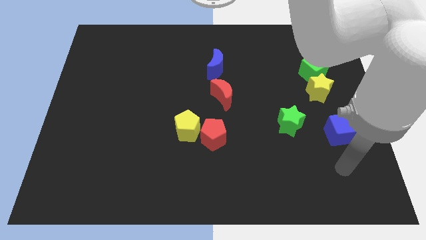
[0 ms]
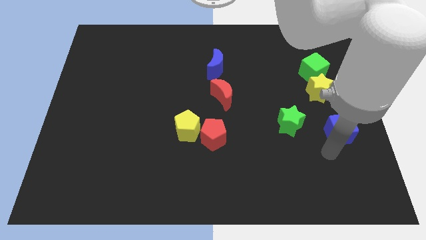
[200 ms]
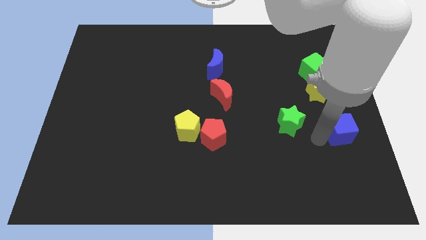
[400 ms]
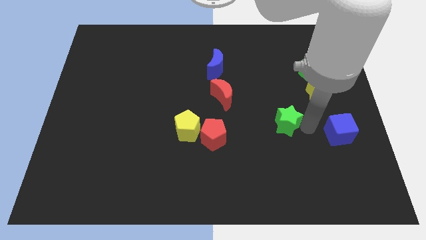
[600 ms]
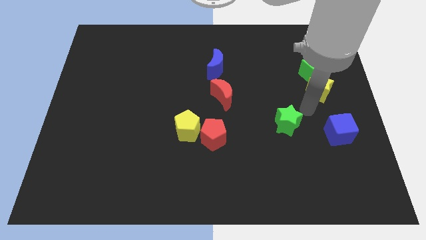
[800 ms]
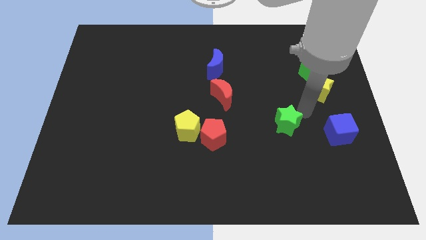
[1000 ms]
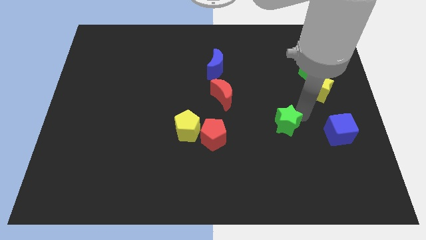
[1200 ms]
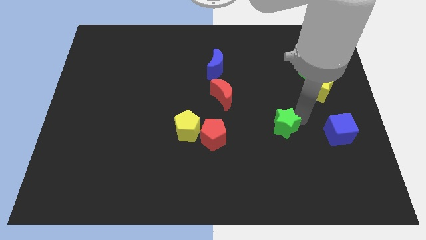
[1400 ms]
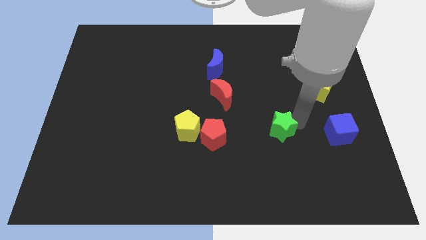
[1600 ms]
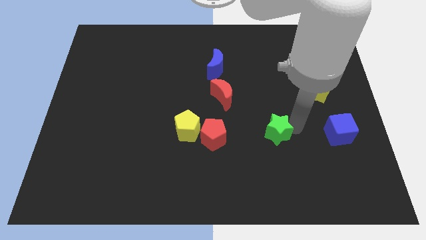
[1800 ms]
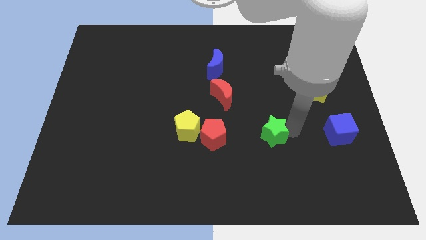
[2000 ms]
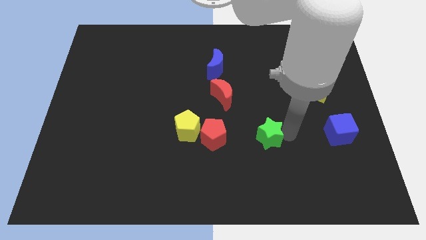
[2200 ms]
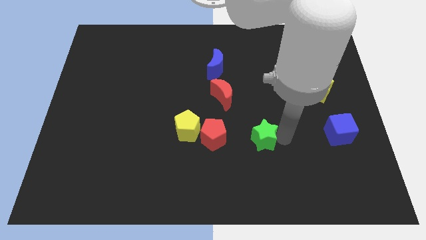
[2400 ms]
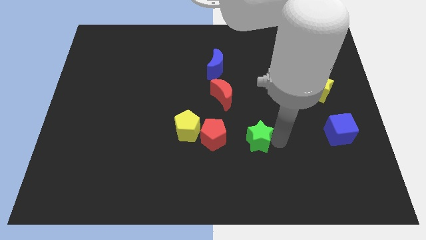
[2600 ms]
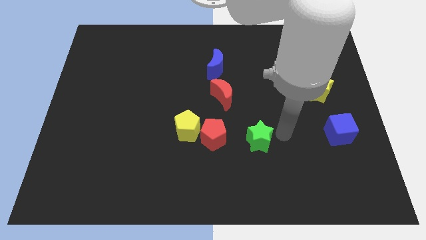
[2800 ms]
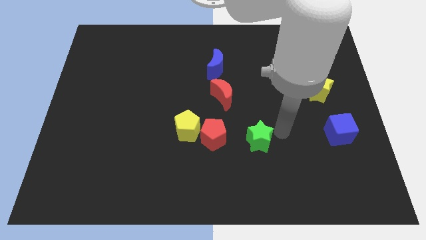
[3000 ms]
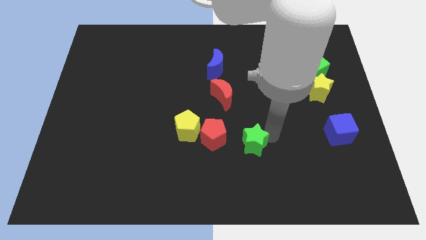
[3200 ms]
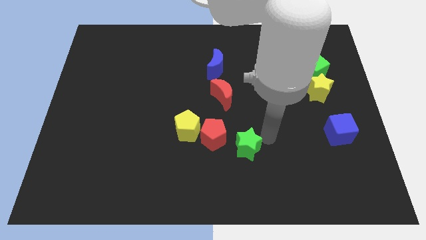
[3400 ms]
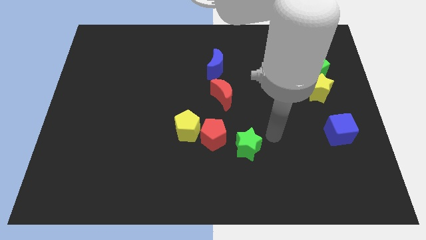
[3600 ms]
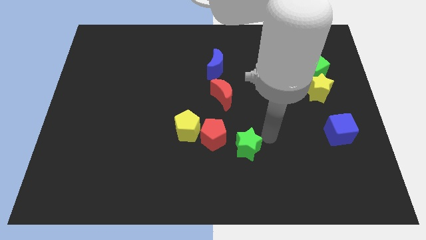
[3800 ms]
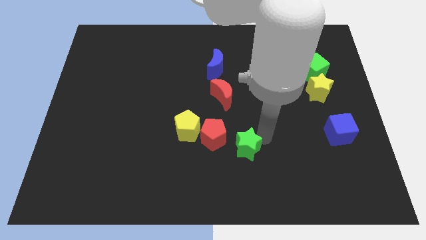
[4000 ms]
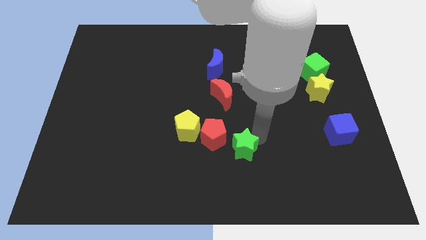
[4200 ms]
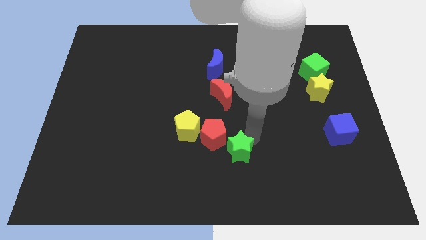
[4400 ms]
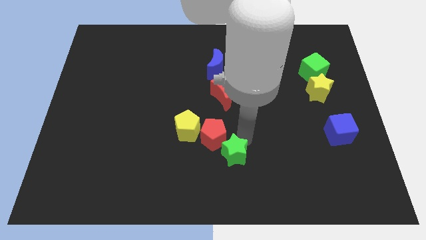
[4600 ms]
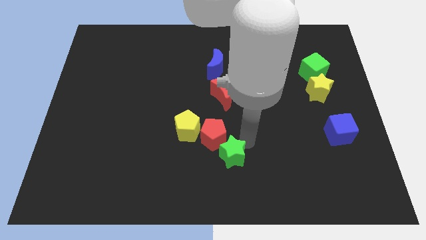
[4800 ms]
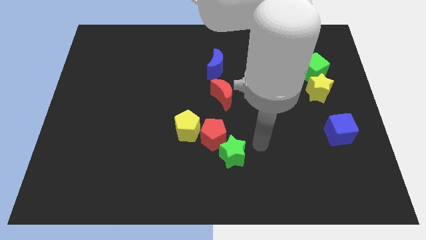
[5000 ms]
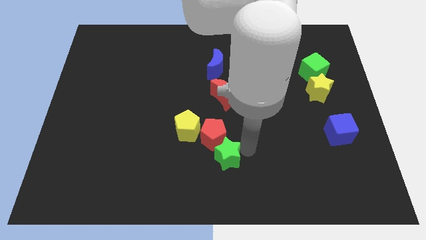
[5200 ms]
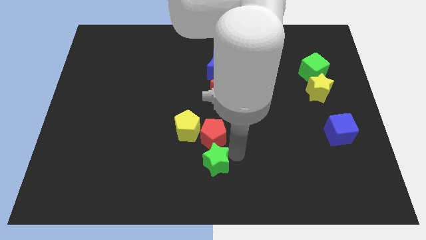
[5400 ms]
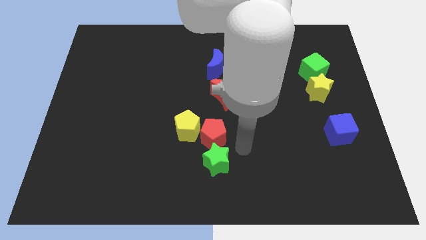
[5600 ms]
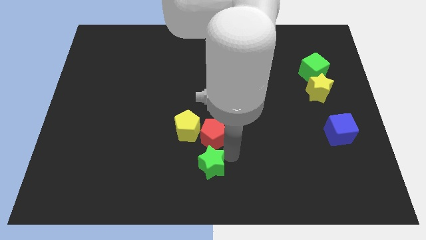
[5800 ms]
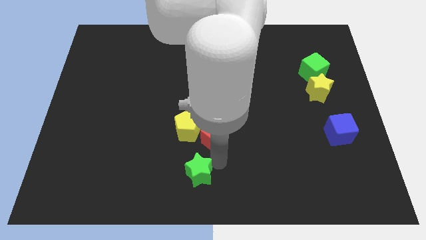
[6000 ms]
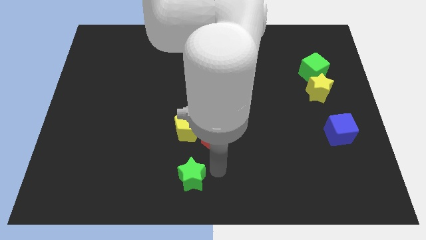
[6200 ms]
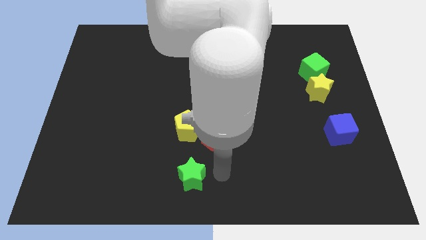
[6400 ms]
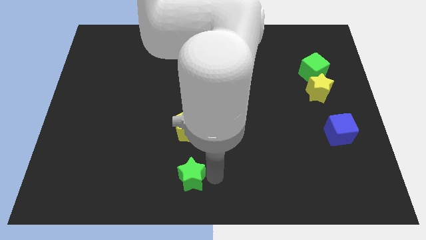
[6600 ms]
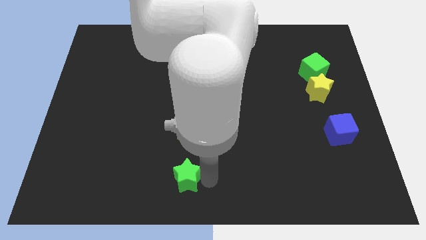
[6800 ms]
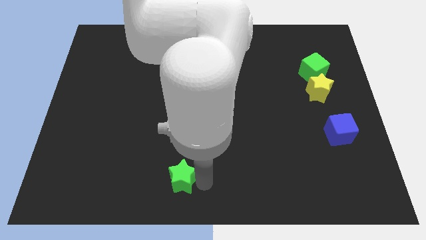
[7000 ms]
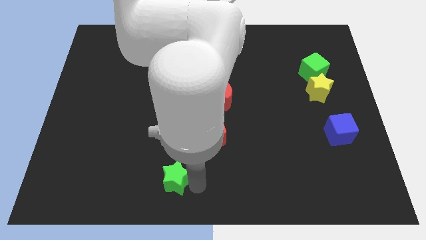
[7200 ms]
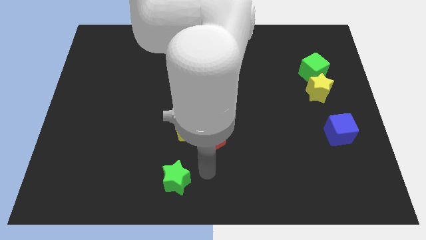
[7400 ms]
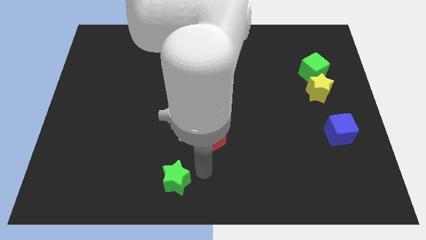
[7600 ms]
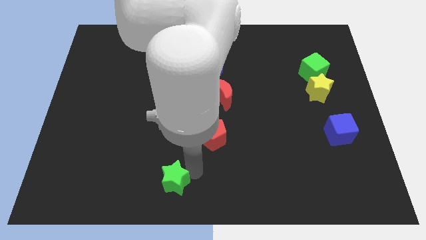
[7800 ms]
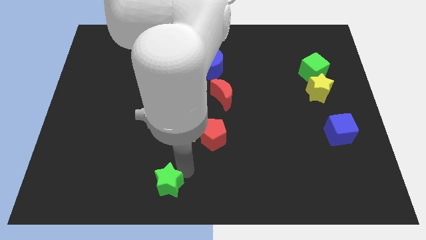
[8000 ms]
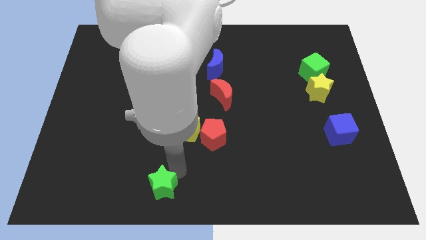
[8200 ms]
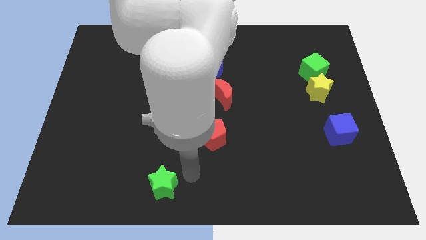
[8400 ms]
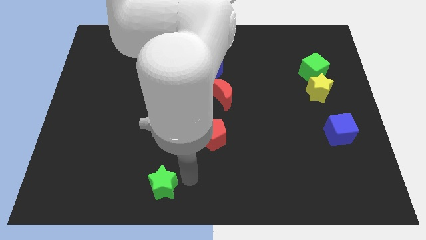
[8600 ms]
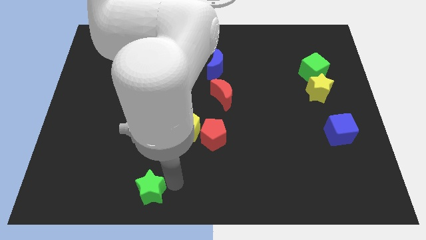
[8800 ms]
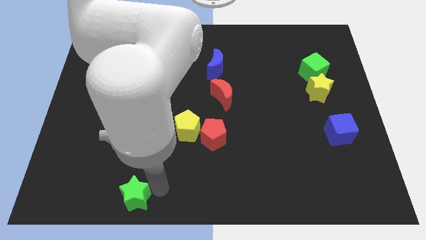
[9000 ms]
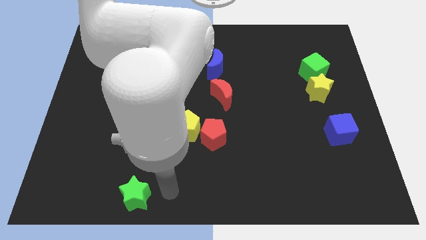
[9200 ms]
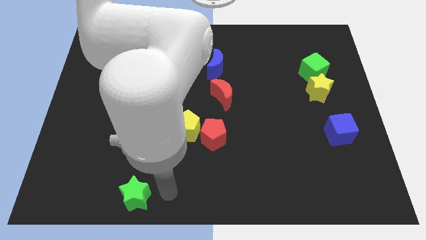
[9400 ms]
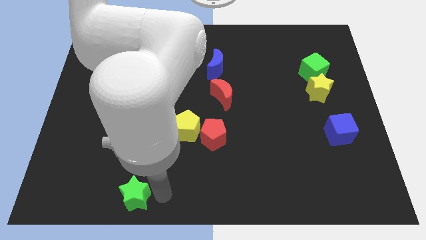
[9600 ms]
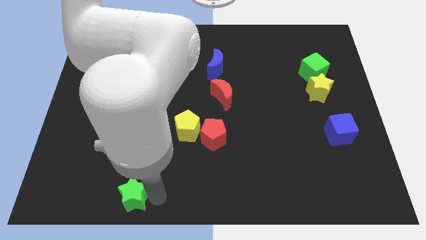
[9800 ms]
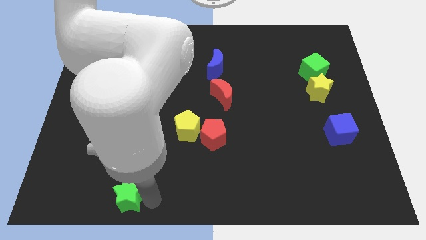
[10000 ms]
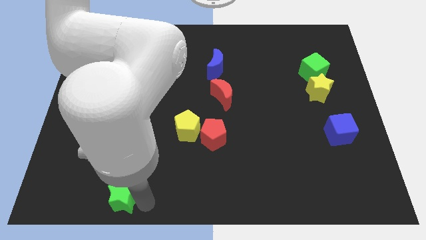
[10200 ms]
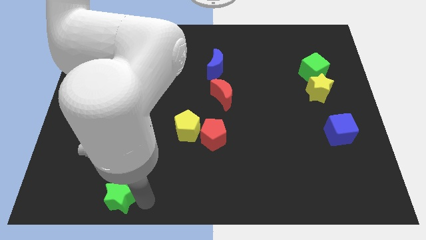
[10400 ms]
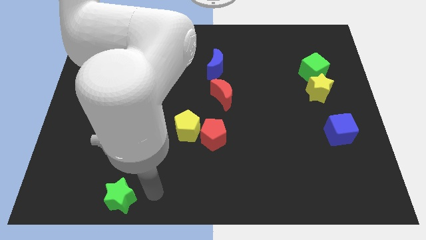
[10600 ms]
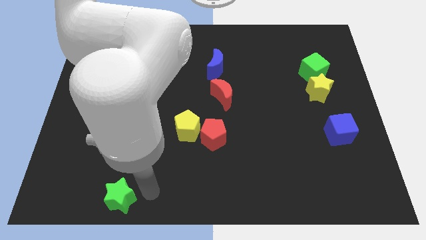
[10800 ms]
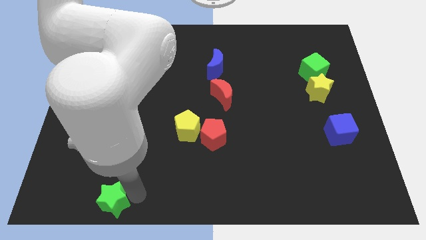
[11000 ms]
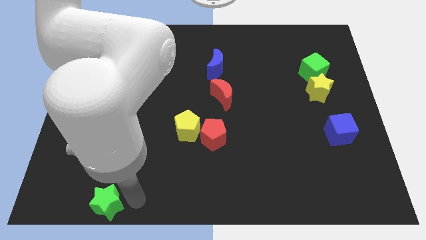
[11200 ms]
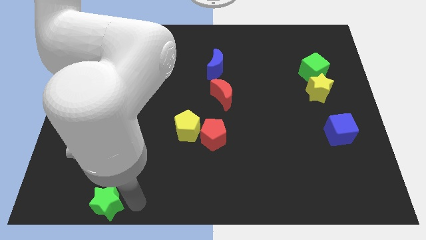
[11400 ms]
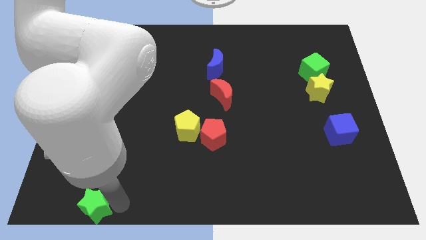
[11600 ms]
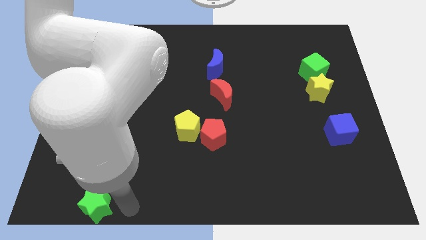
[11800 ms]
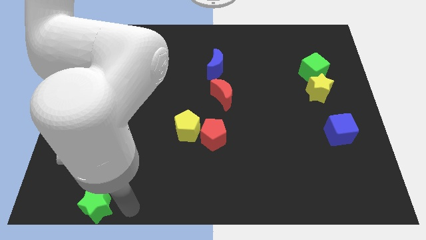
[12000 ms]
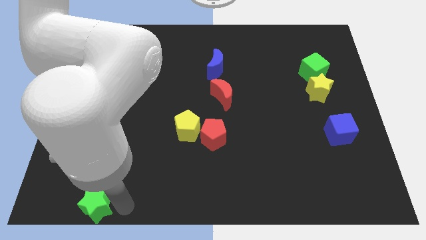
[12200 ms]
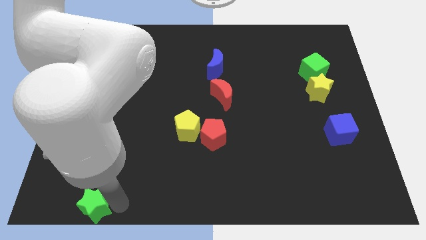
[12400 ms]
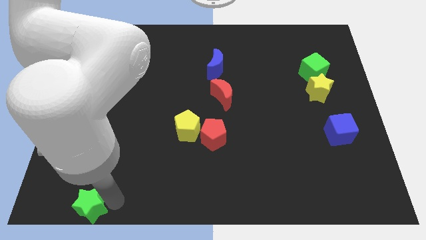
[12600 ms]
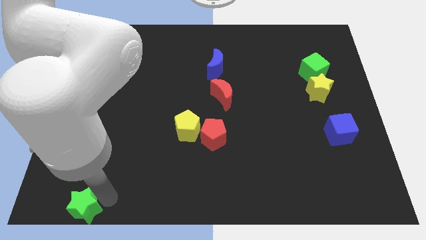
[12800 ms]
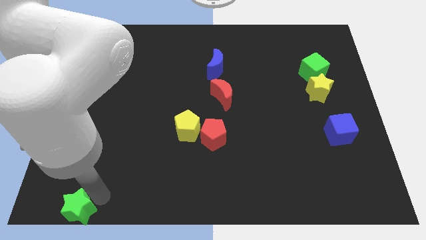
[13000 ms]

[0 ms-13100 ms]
slide the green star to the bottom left
